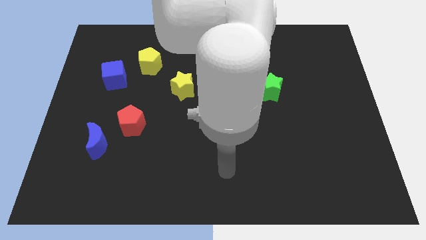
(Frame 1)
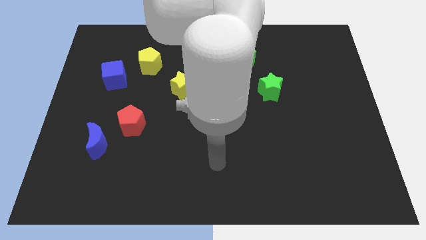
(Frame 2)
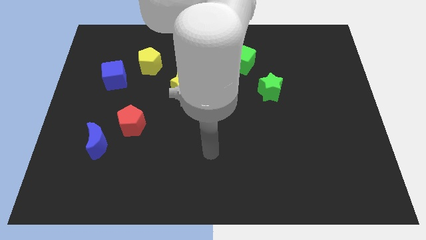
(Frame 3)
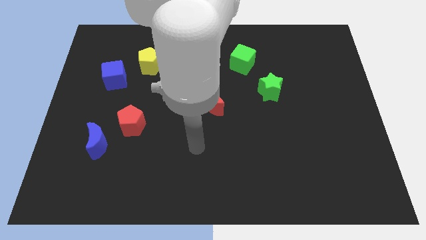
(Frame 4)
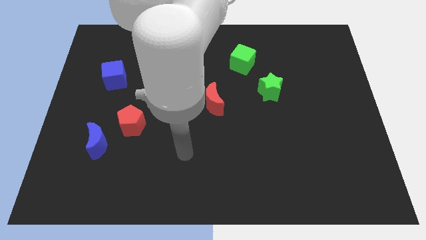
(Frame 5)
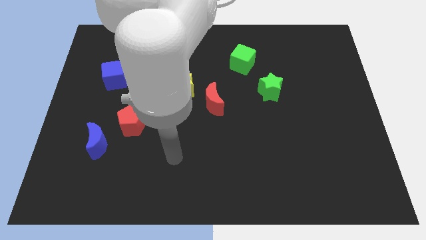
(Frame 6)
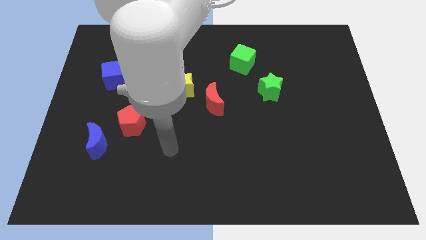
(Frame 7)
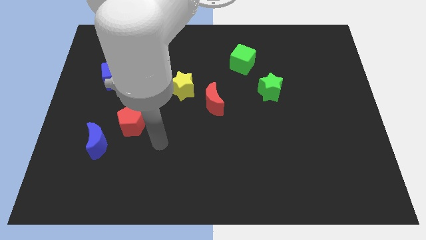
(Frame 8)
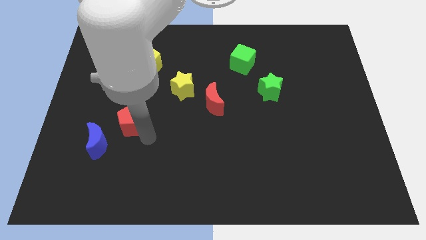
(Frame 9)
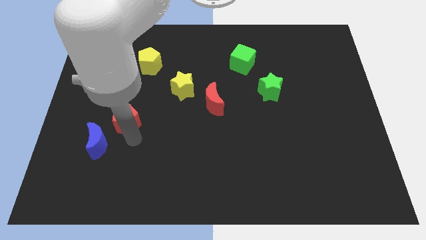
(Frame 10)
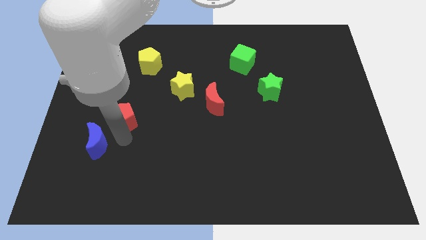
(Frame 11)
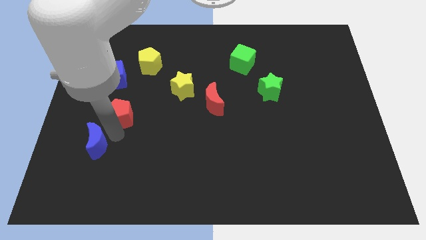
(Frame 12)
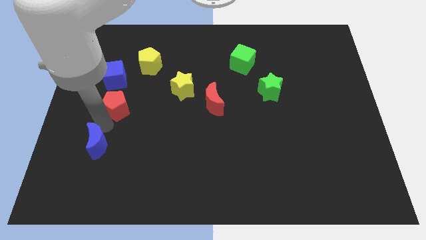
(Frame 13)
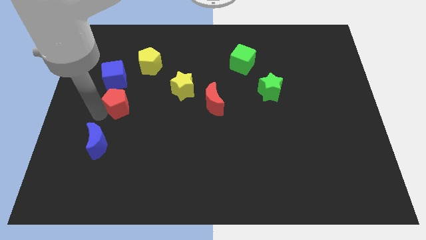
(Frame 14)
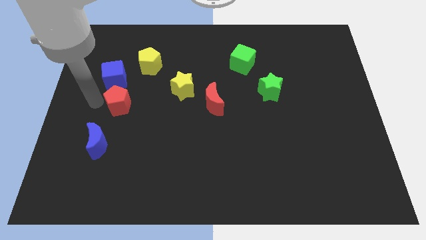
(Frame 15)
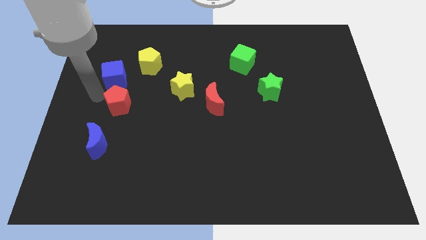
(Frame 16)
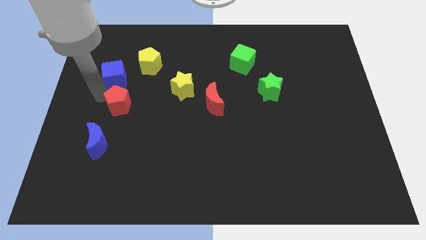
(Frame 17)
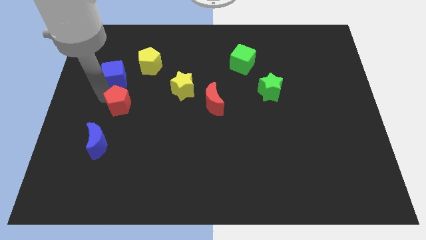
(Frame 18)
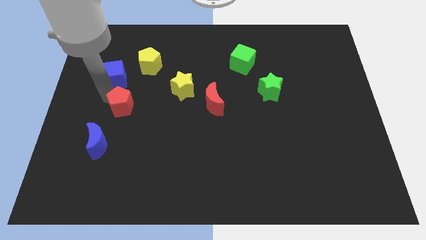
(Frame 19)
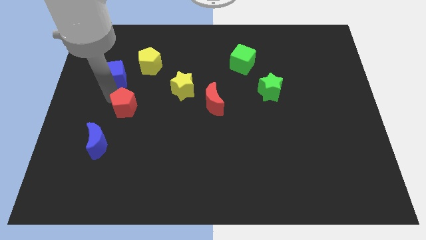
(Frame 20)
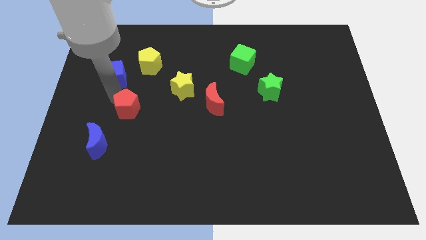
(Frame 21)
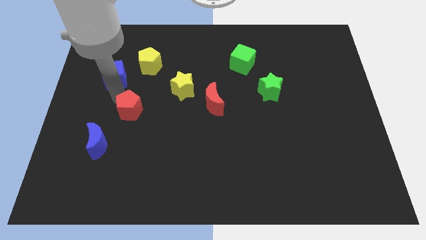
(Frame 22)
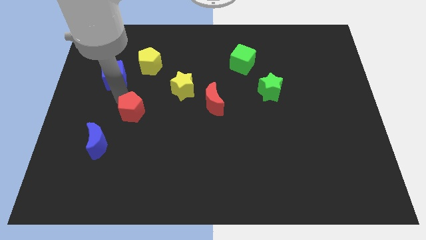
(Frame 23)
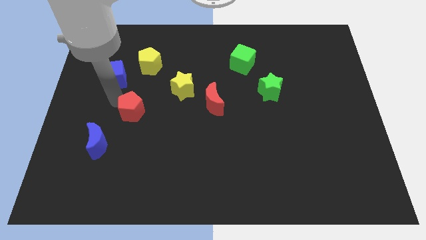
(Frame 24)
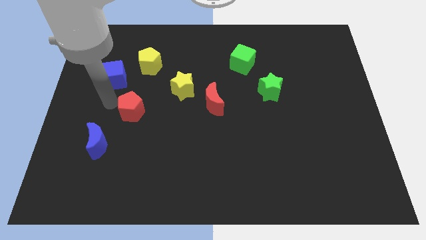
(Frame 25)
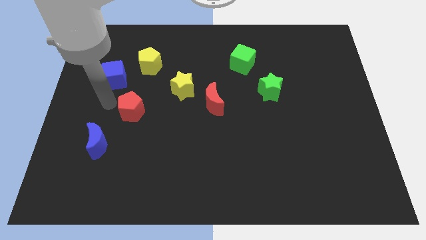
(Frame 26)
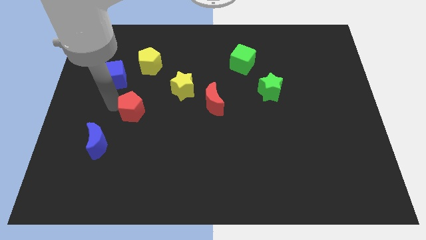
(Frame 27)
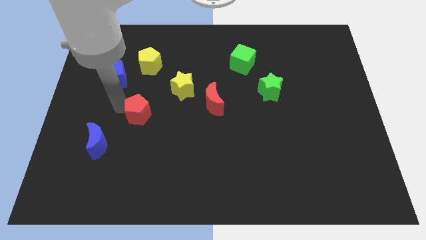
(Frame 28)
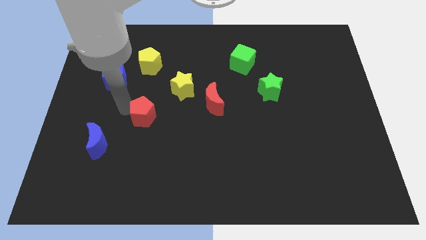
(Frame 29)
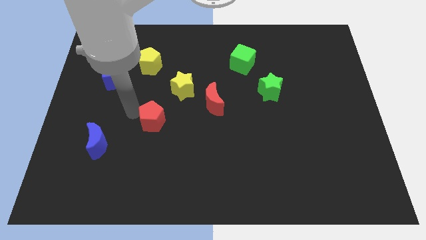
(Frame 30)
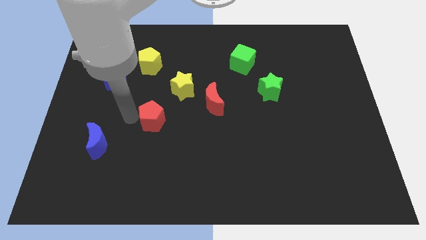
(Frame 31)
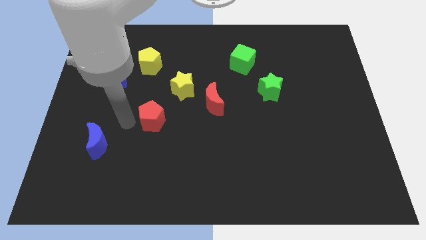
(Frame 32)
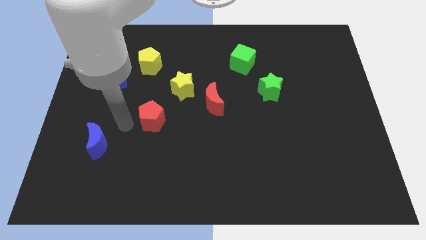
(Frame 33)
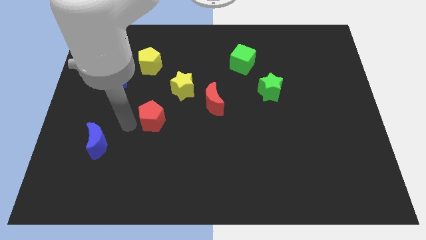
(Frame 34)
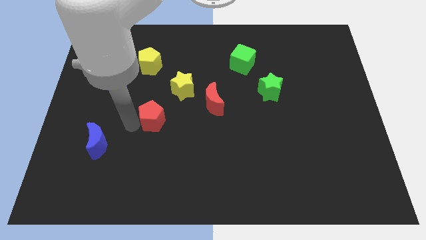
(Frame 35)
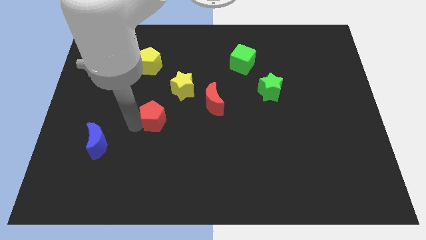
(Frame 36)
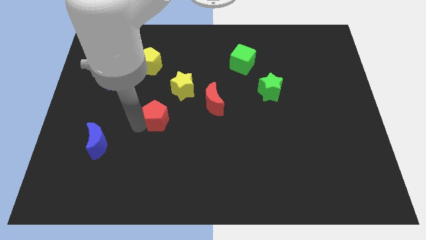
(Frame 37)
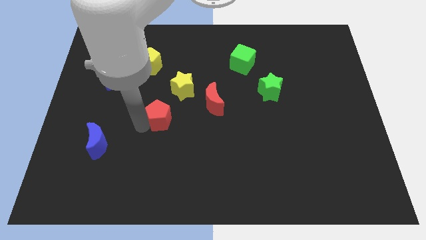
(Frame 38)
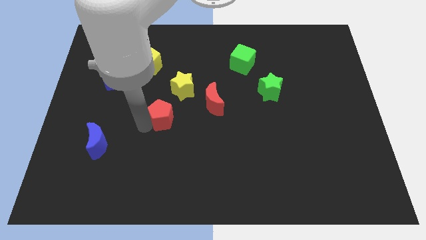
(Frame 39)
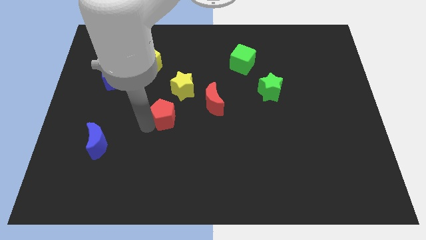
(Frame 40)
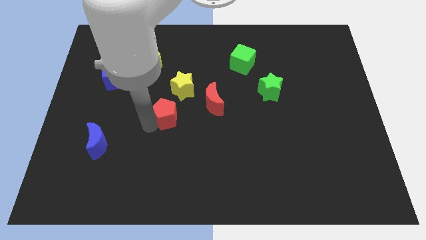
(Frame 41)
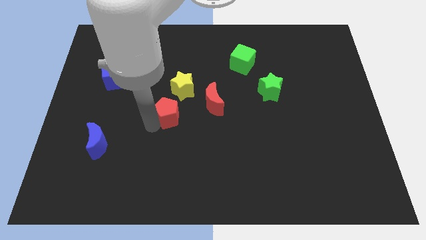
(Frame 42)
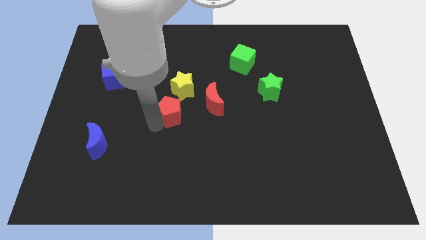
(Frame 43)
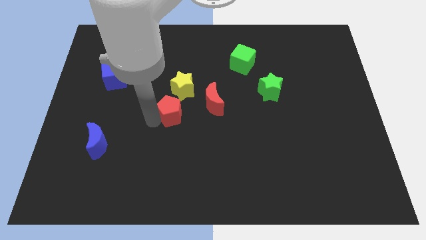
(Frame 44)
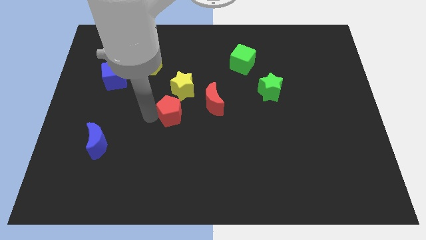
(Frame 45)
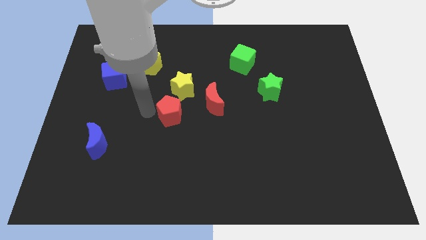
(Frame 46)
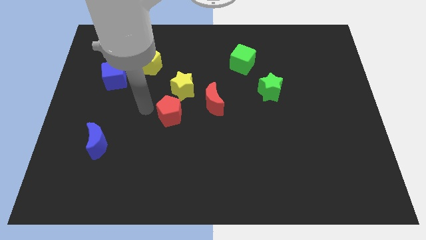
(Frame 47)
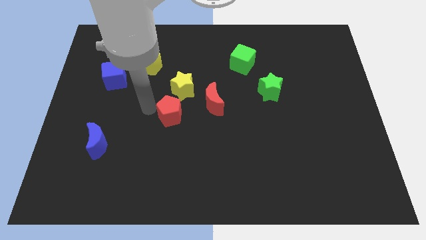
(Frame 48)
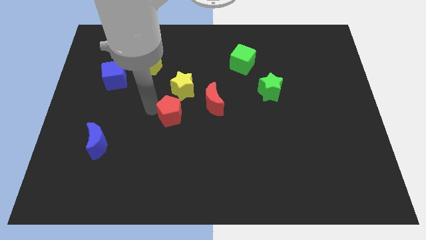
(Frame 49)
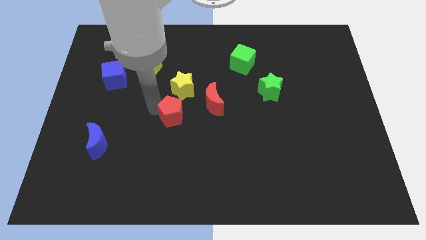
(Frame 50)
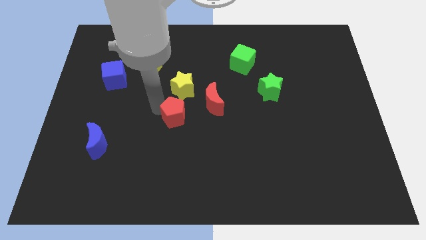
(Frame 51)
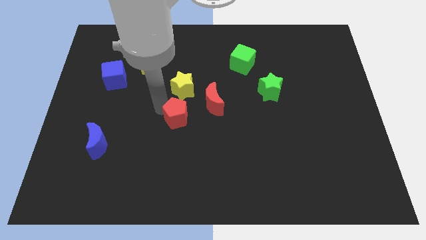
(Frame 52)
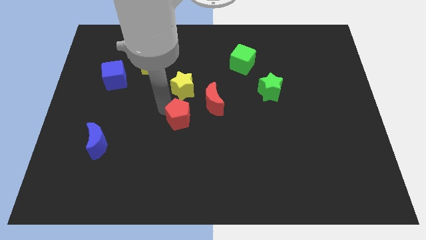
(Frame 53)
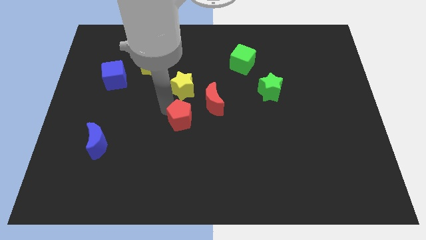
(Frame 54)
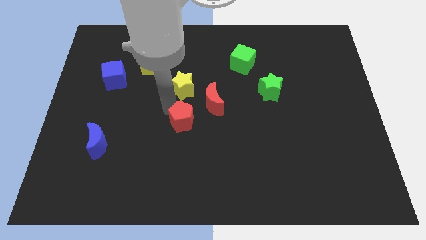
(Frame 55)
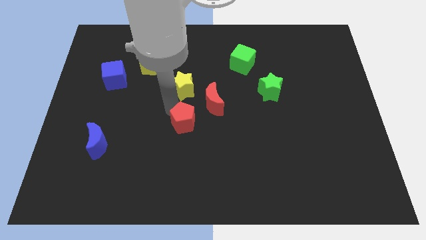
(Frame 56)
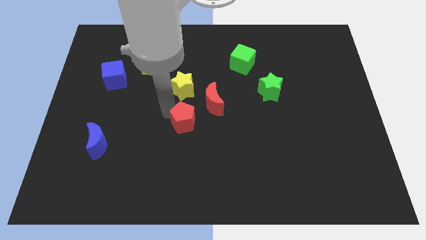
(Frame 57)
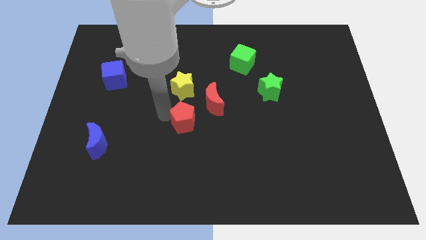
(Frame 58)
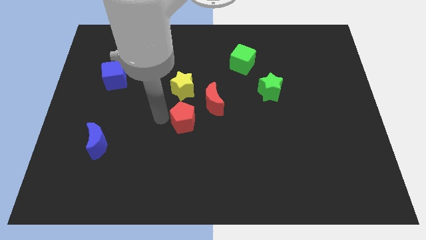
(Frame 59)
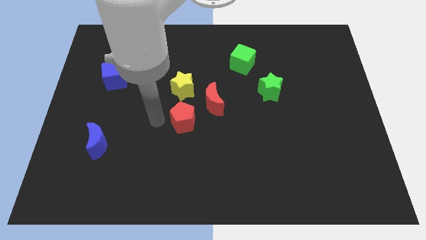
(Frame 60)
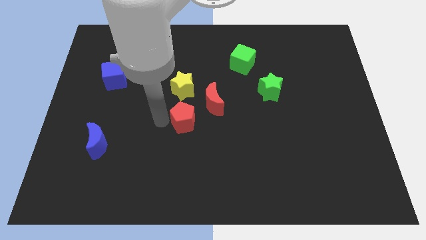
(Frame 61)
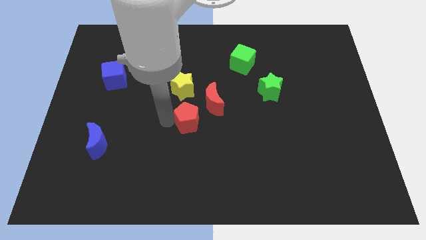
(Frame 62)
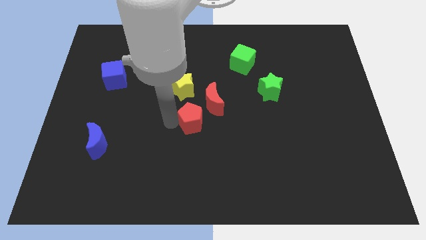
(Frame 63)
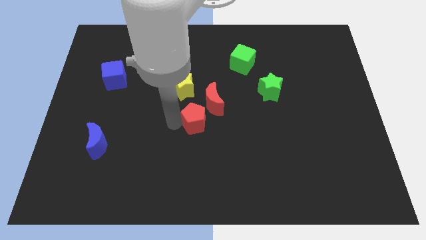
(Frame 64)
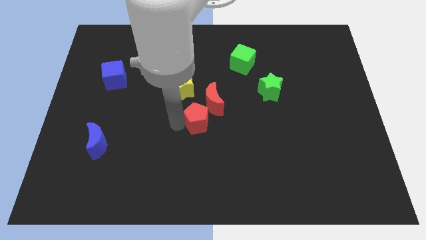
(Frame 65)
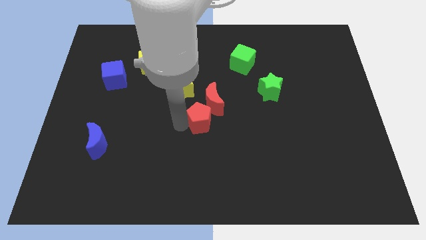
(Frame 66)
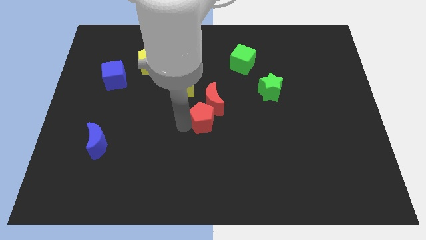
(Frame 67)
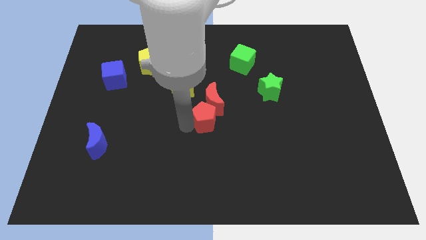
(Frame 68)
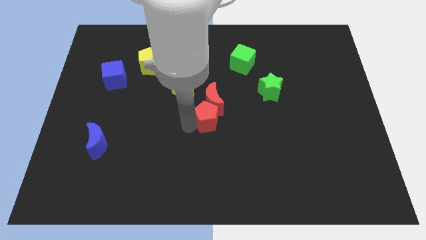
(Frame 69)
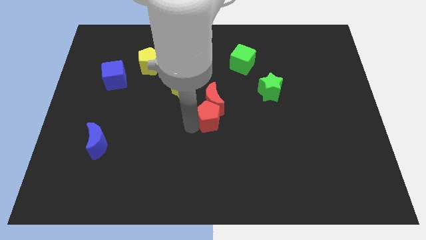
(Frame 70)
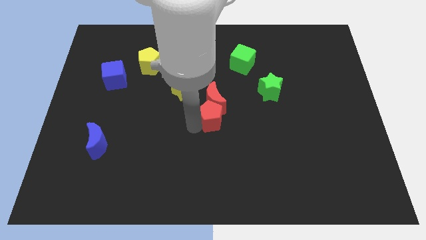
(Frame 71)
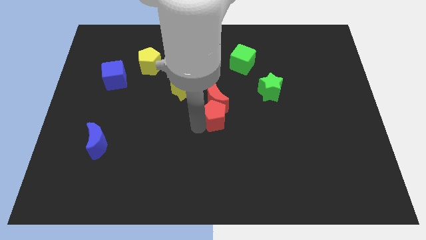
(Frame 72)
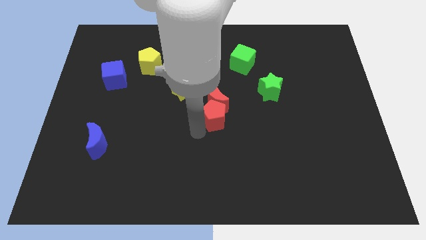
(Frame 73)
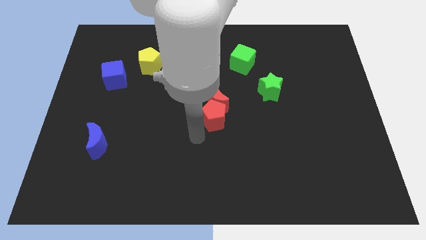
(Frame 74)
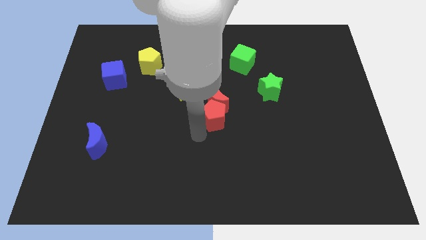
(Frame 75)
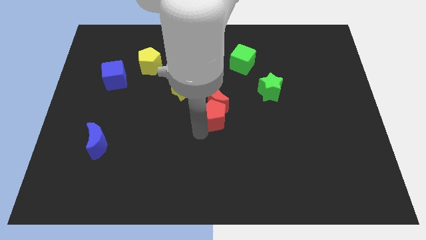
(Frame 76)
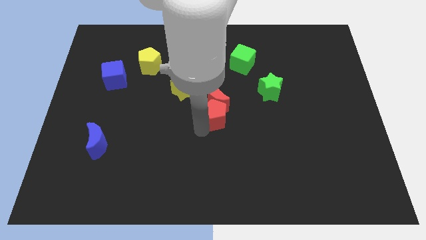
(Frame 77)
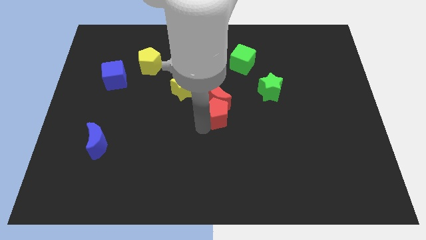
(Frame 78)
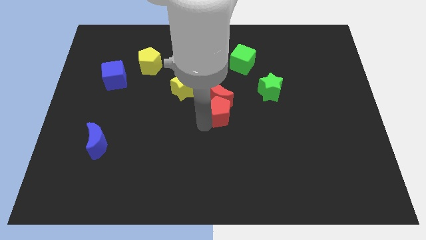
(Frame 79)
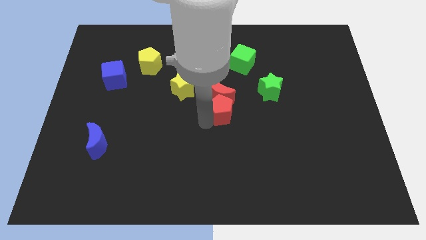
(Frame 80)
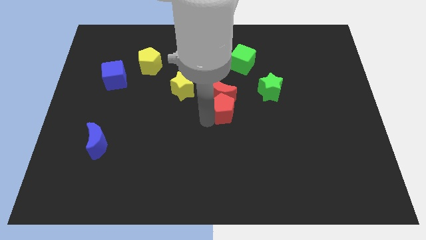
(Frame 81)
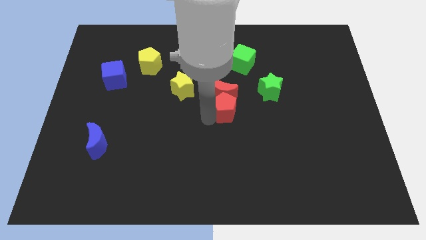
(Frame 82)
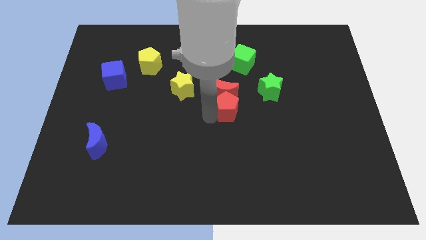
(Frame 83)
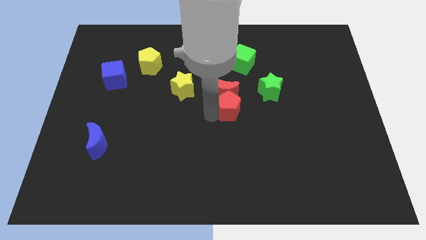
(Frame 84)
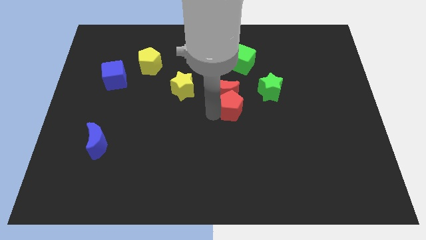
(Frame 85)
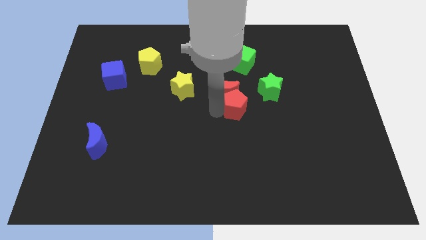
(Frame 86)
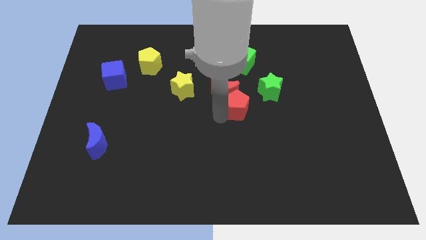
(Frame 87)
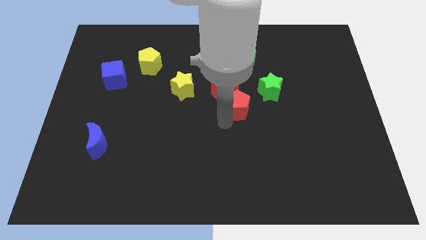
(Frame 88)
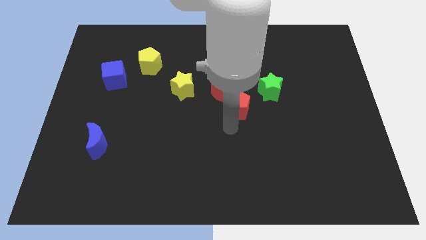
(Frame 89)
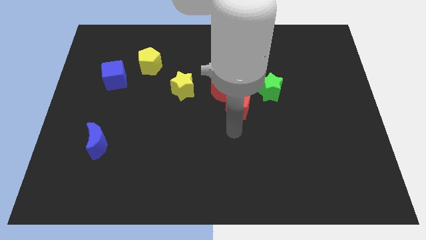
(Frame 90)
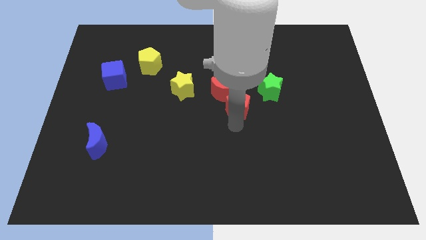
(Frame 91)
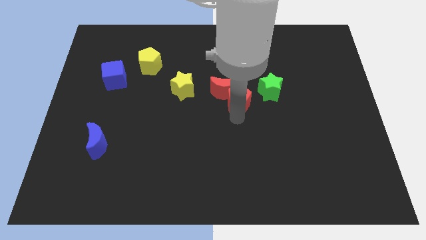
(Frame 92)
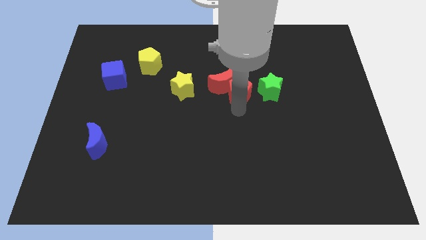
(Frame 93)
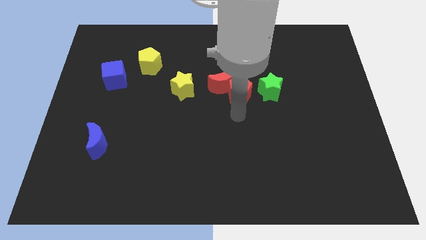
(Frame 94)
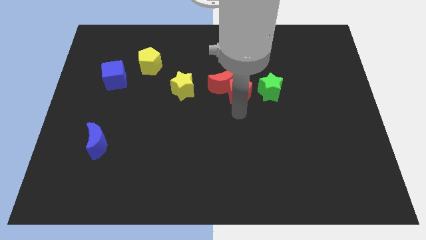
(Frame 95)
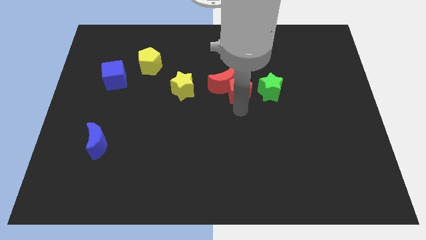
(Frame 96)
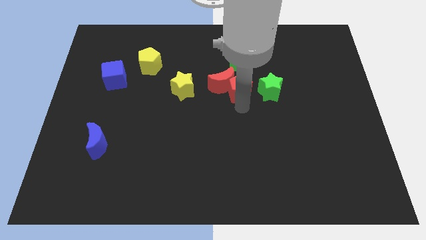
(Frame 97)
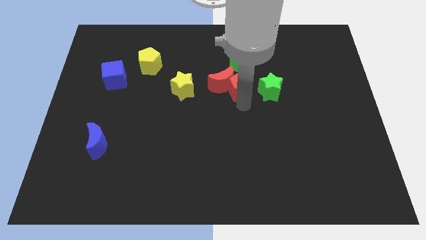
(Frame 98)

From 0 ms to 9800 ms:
push the red pentagon to the top right side of the red moon
